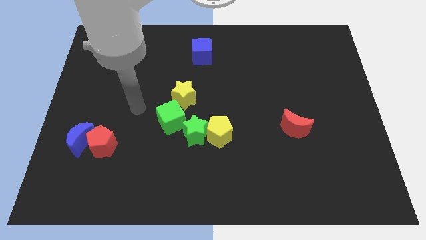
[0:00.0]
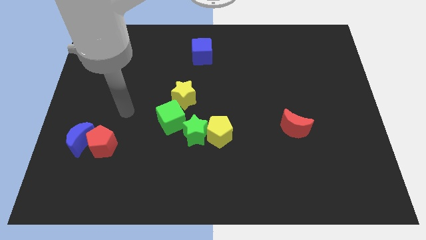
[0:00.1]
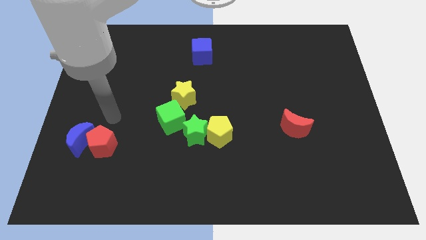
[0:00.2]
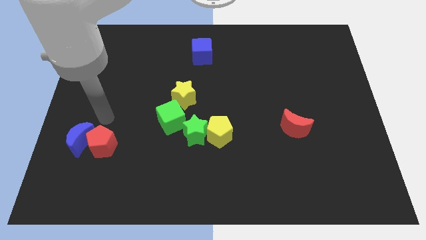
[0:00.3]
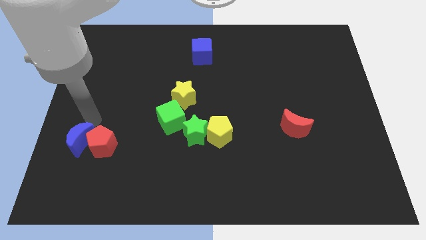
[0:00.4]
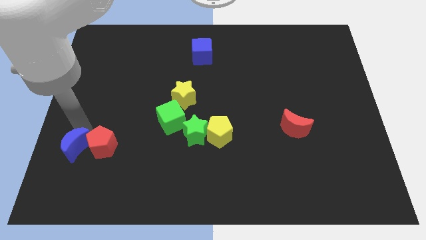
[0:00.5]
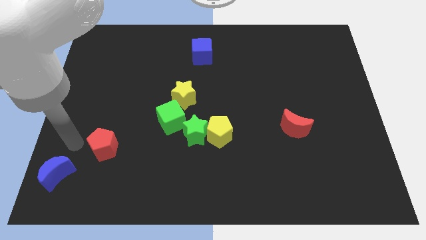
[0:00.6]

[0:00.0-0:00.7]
separate the red pentagon from the blue moon

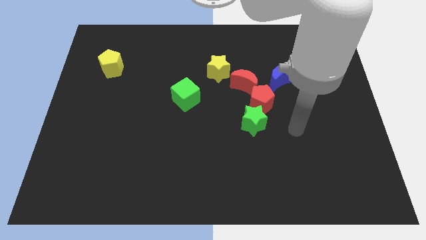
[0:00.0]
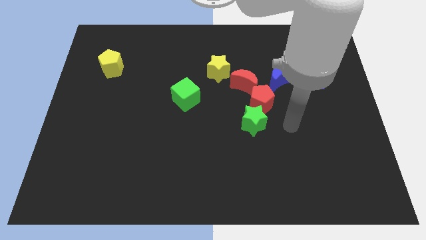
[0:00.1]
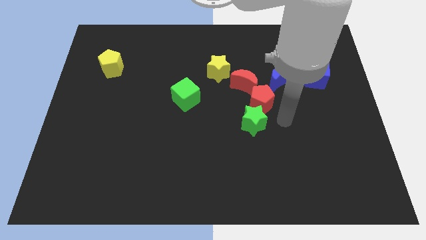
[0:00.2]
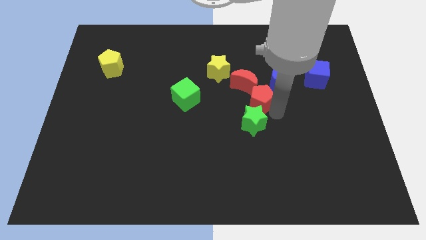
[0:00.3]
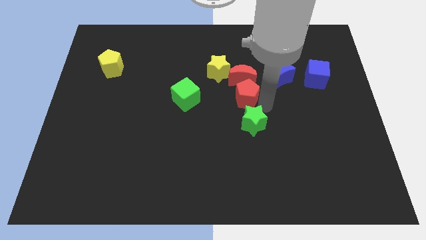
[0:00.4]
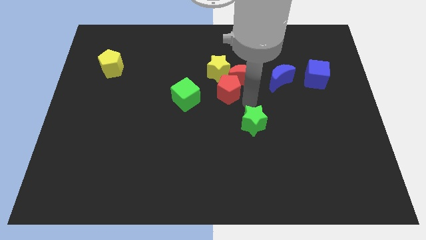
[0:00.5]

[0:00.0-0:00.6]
move the green star away from the red pentagon

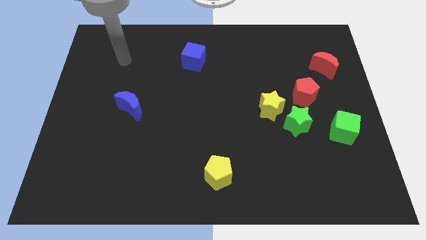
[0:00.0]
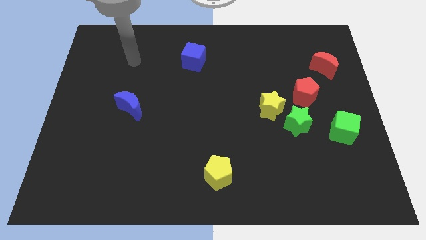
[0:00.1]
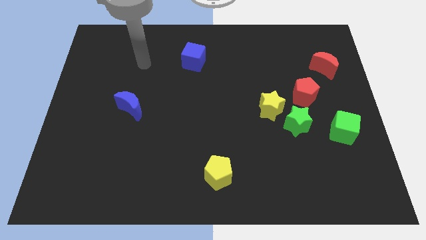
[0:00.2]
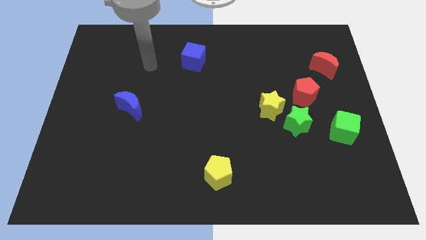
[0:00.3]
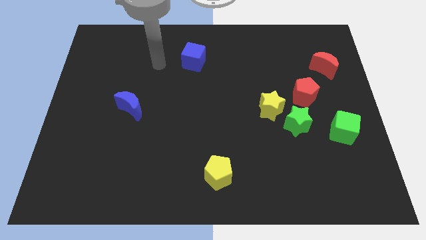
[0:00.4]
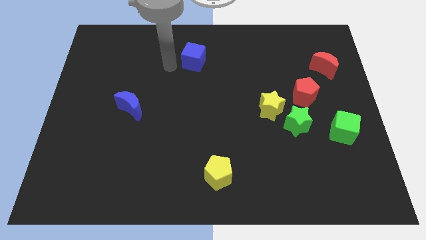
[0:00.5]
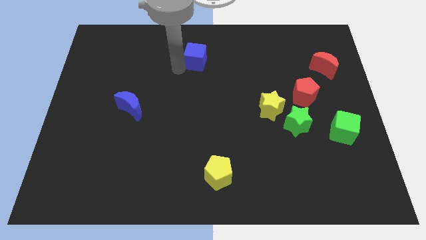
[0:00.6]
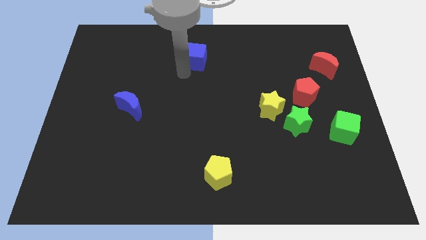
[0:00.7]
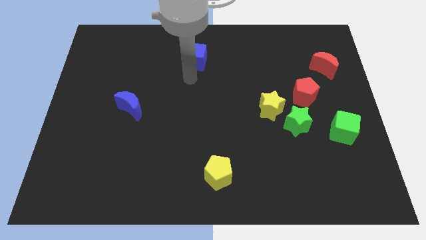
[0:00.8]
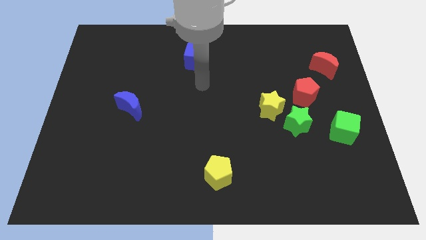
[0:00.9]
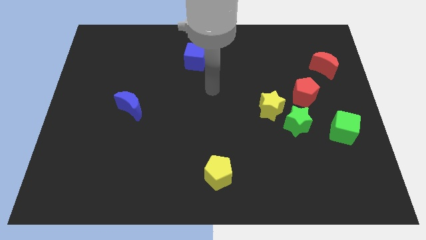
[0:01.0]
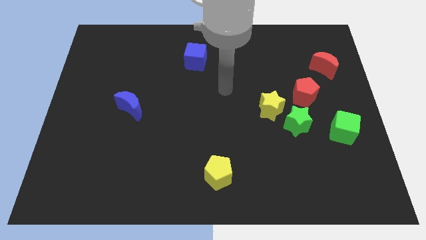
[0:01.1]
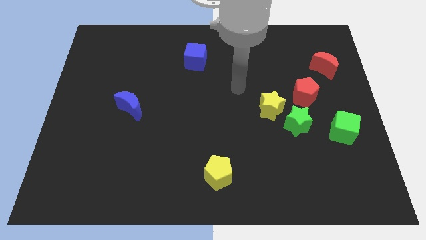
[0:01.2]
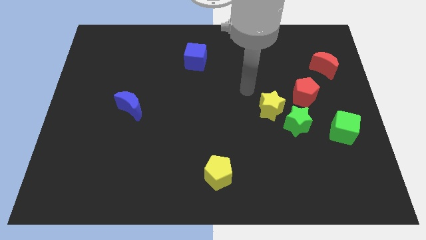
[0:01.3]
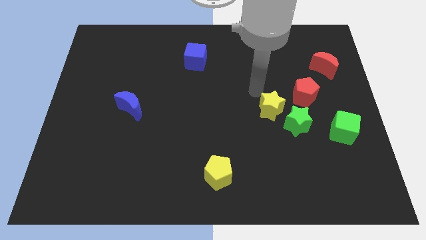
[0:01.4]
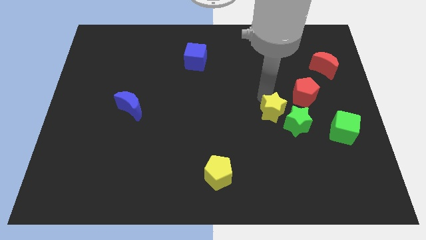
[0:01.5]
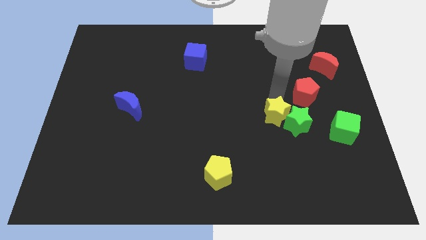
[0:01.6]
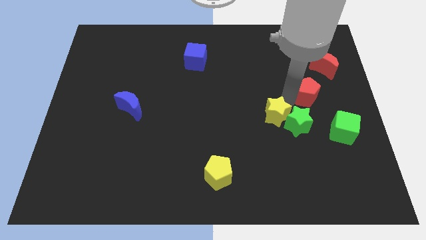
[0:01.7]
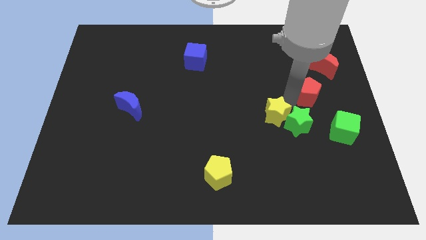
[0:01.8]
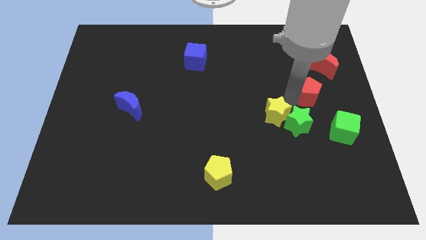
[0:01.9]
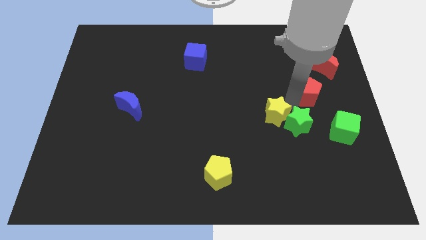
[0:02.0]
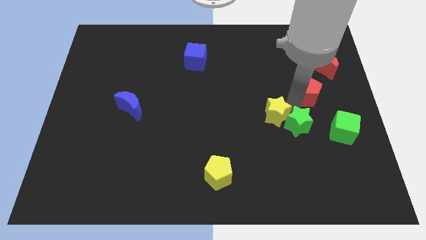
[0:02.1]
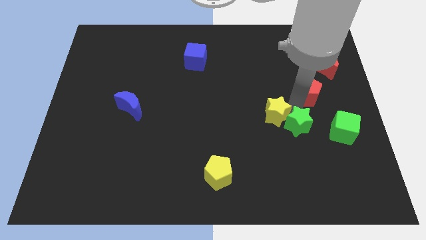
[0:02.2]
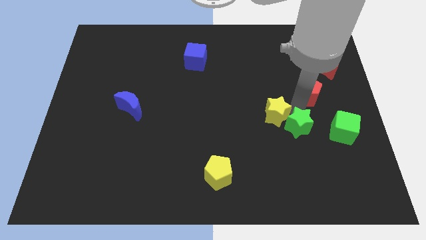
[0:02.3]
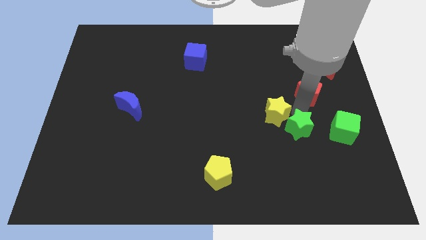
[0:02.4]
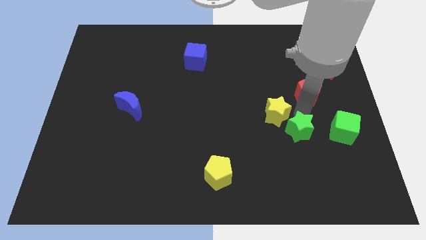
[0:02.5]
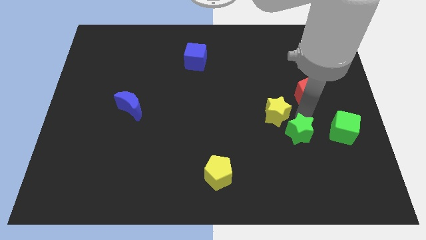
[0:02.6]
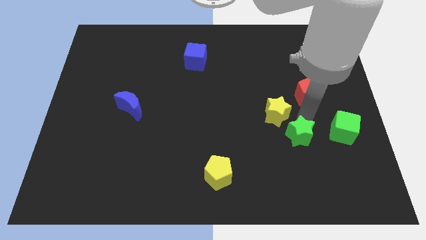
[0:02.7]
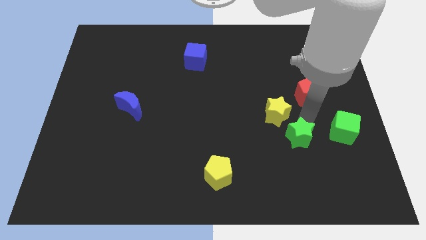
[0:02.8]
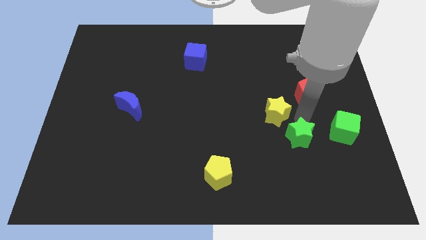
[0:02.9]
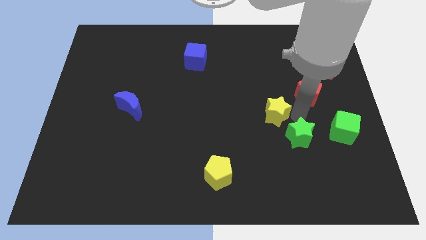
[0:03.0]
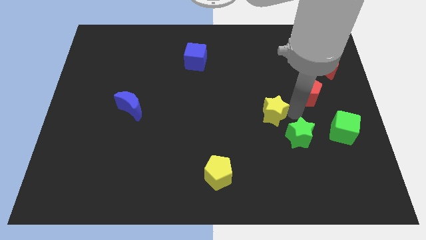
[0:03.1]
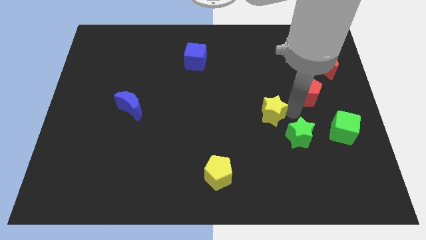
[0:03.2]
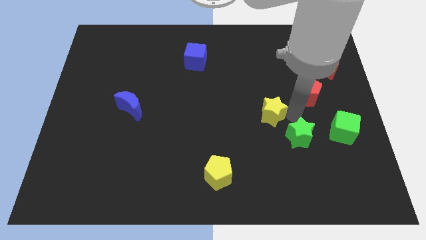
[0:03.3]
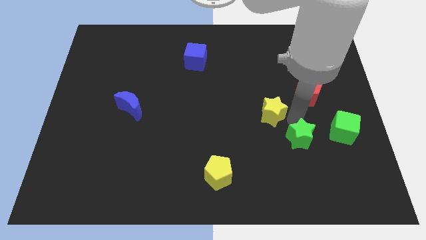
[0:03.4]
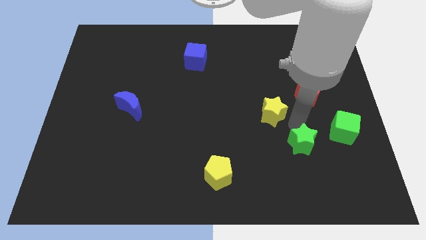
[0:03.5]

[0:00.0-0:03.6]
pull the green star apart from the yellow star and red pentagon

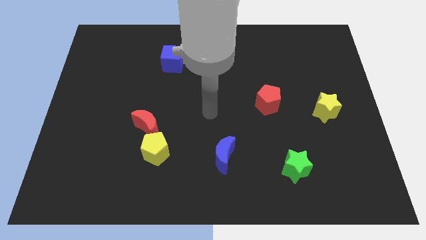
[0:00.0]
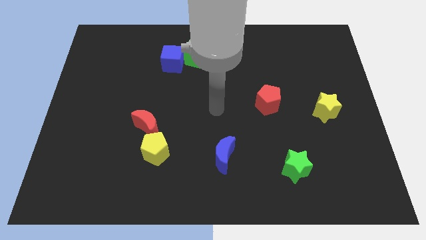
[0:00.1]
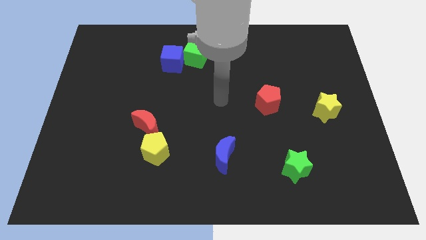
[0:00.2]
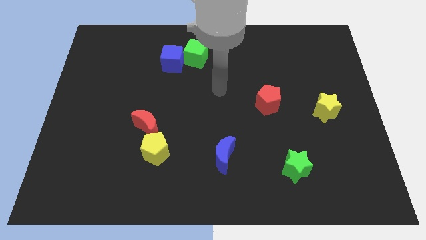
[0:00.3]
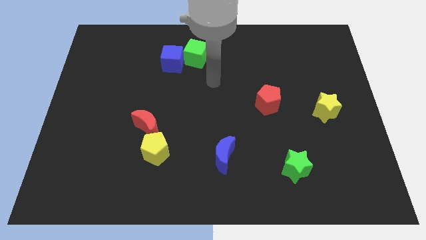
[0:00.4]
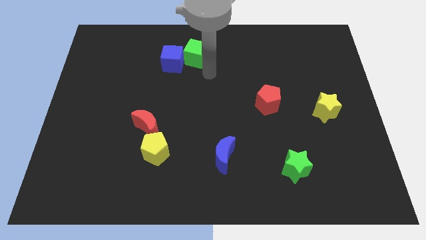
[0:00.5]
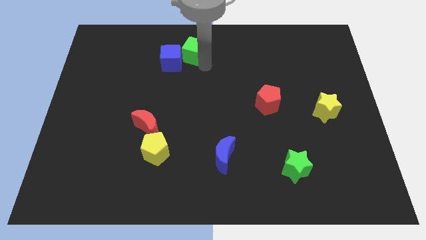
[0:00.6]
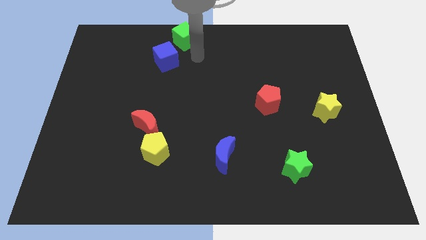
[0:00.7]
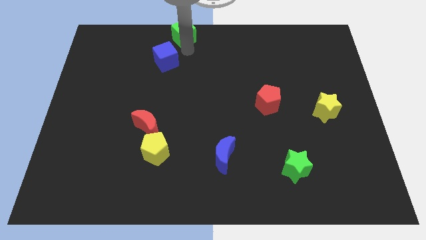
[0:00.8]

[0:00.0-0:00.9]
move the blue cube away from the green cube

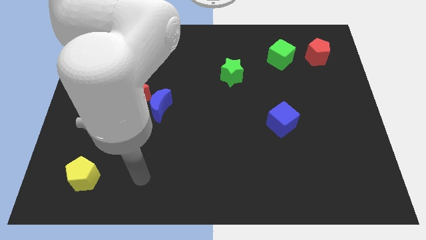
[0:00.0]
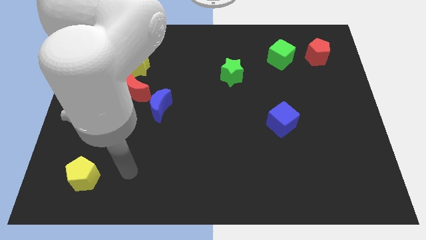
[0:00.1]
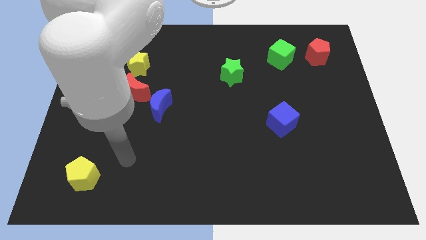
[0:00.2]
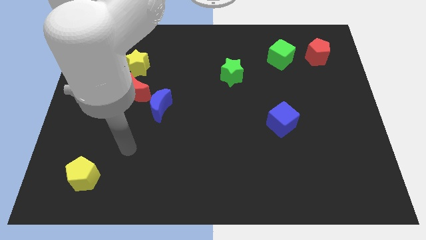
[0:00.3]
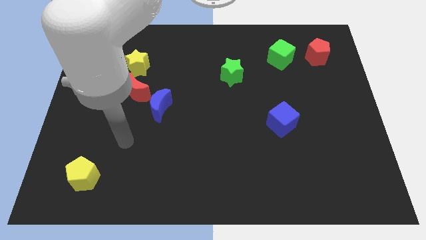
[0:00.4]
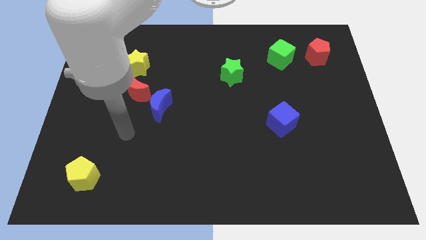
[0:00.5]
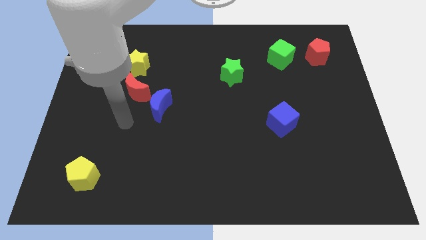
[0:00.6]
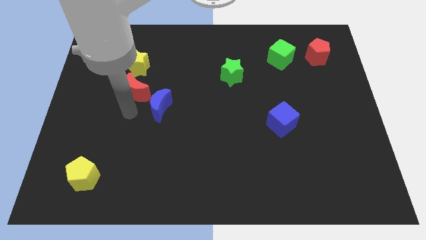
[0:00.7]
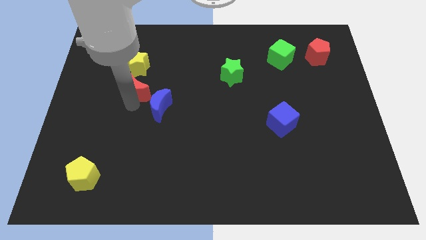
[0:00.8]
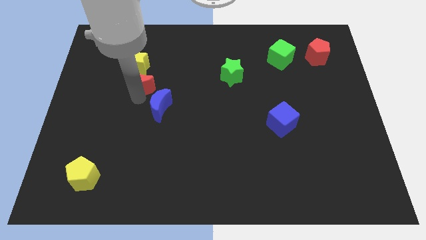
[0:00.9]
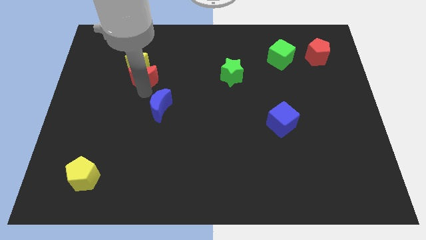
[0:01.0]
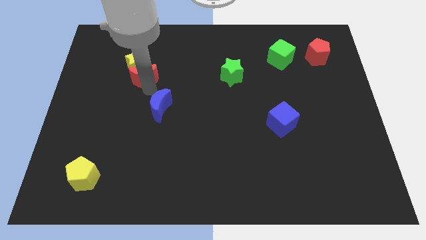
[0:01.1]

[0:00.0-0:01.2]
move the blue moon away from the red moon

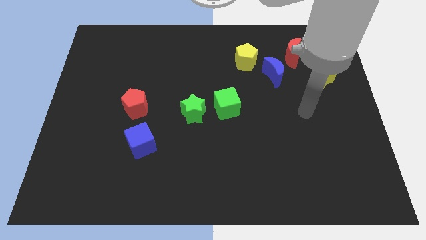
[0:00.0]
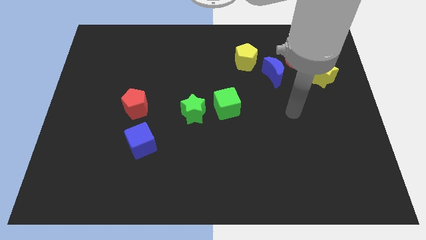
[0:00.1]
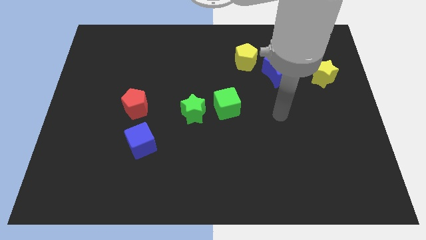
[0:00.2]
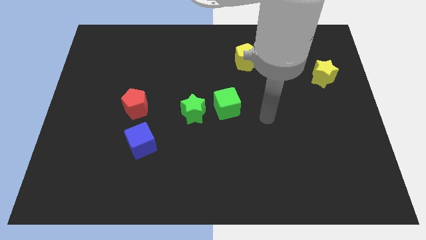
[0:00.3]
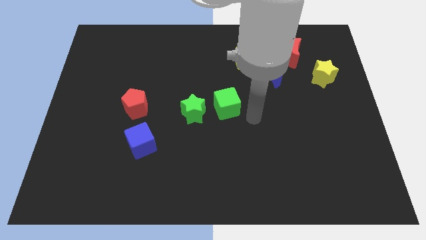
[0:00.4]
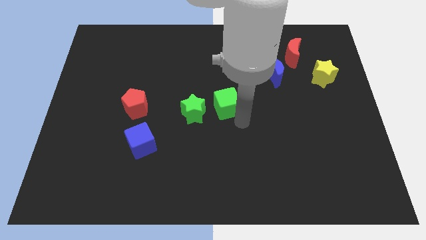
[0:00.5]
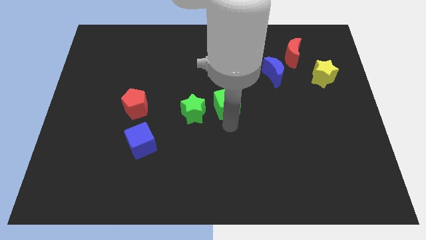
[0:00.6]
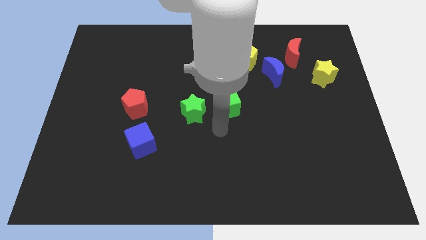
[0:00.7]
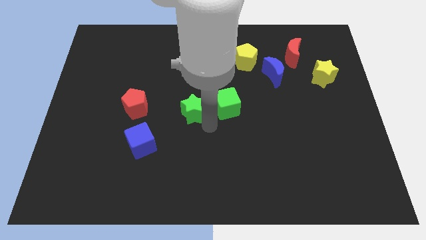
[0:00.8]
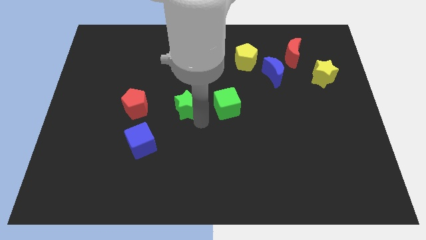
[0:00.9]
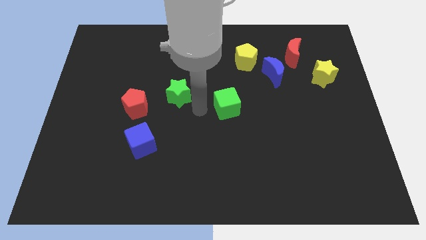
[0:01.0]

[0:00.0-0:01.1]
move the green cube away from the green star

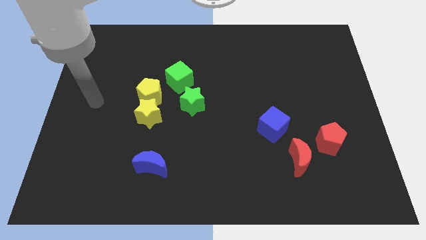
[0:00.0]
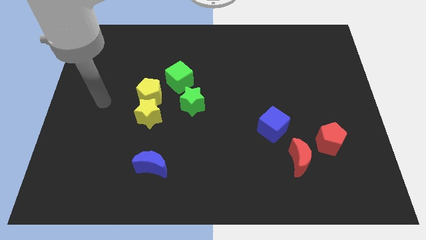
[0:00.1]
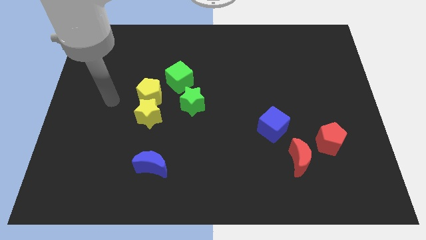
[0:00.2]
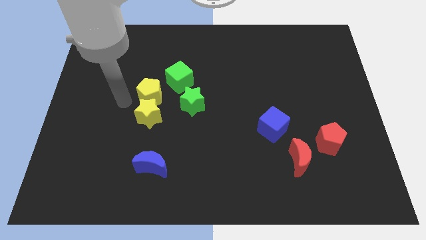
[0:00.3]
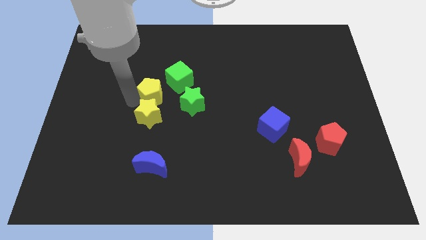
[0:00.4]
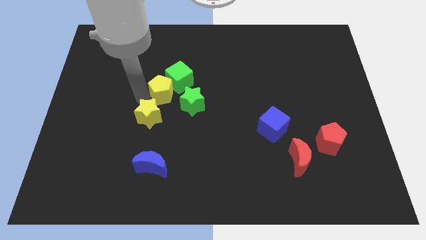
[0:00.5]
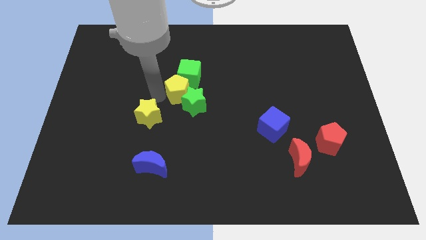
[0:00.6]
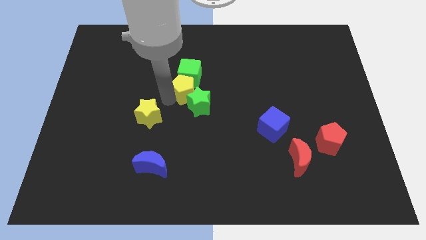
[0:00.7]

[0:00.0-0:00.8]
move the yellow star away from the yellow pentagon

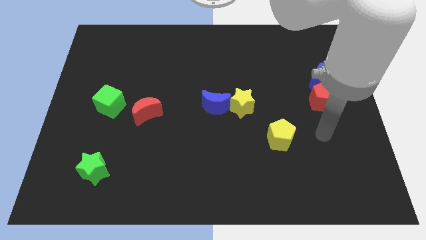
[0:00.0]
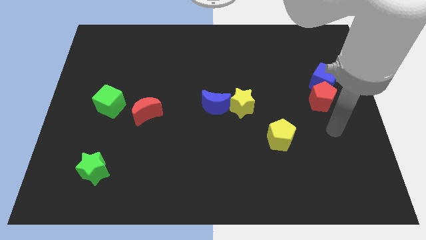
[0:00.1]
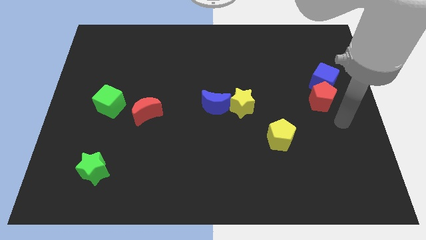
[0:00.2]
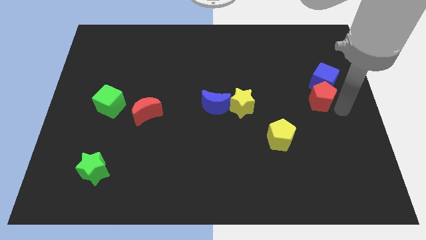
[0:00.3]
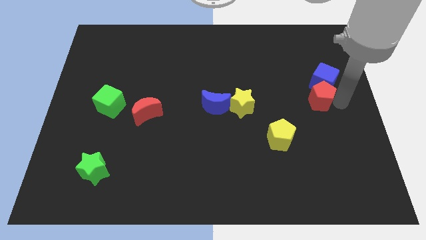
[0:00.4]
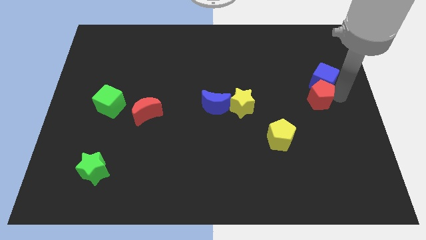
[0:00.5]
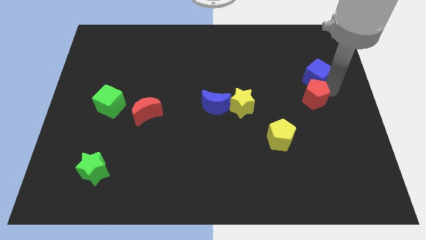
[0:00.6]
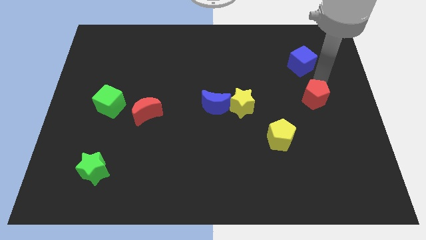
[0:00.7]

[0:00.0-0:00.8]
separate the red pentagon from the blue cube
